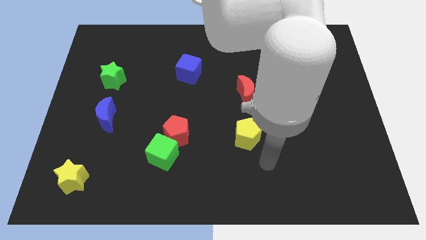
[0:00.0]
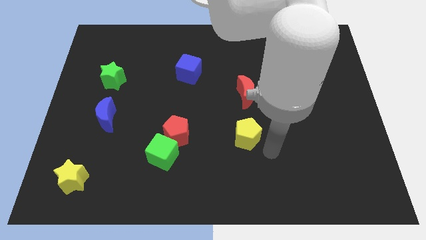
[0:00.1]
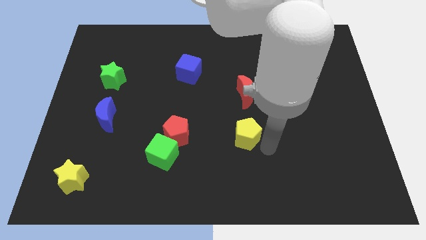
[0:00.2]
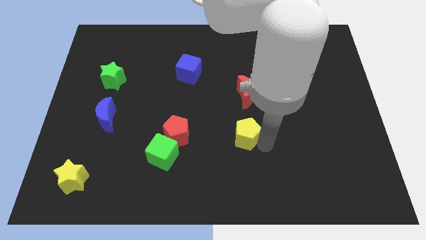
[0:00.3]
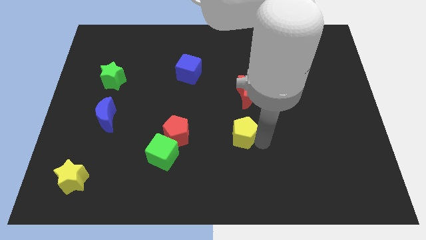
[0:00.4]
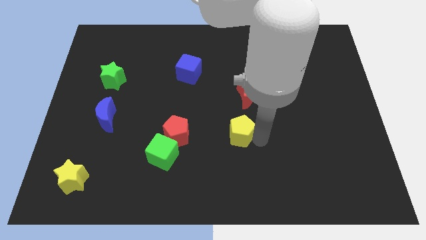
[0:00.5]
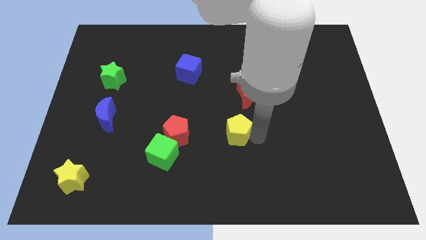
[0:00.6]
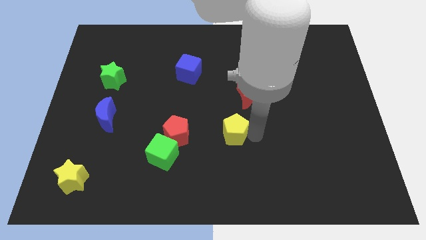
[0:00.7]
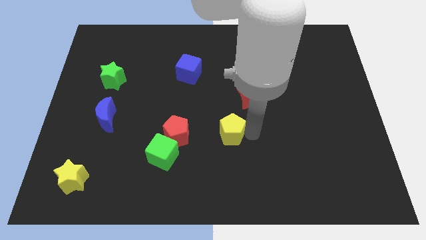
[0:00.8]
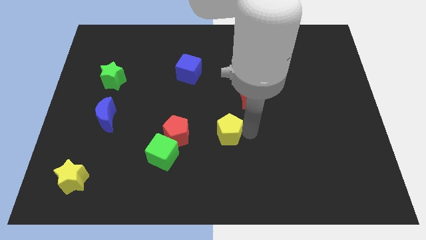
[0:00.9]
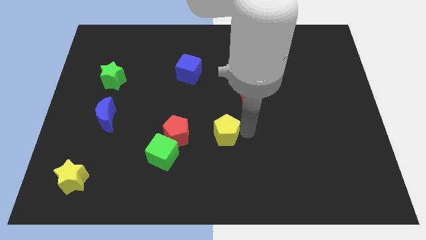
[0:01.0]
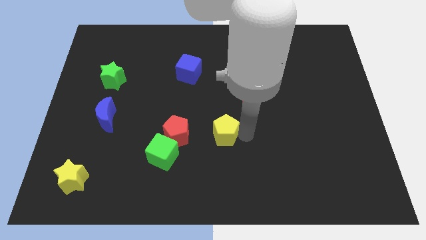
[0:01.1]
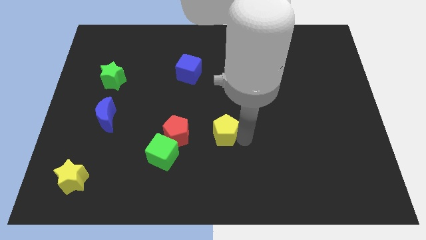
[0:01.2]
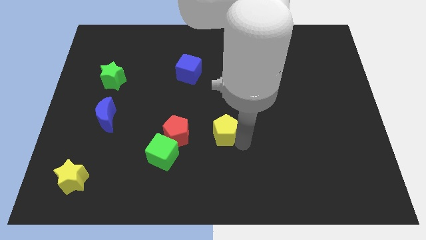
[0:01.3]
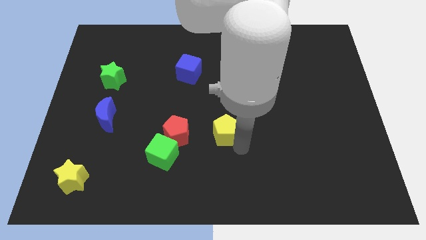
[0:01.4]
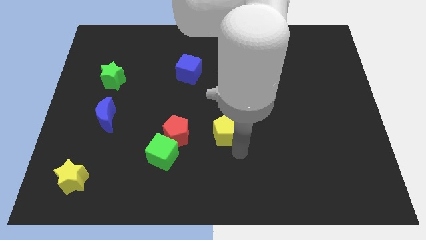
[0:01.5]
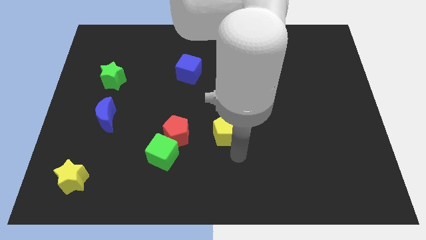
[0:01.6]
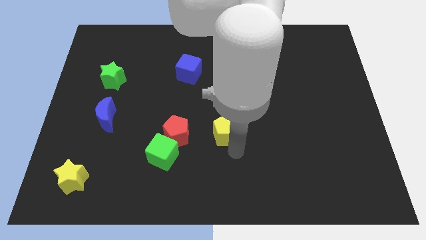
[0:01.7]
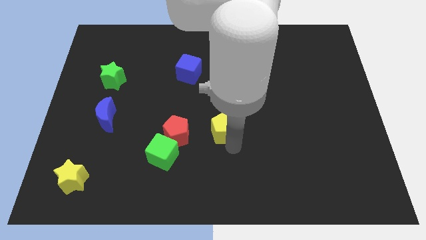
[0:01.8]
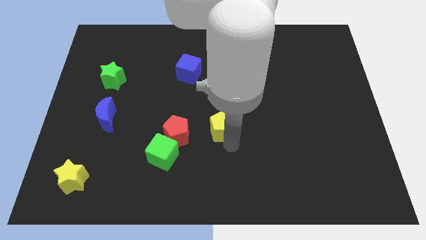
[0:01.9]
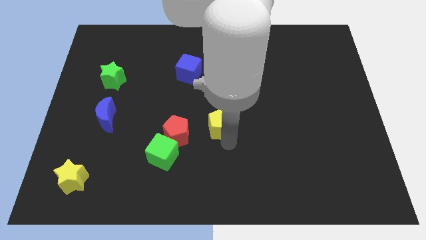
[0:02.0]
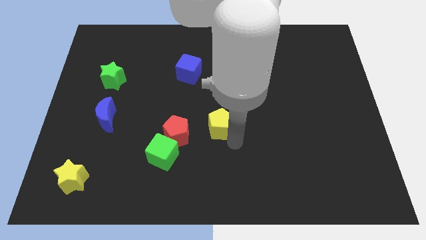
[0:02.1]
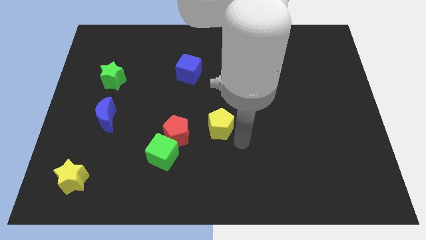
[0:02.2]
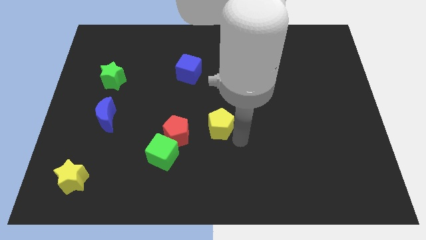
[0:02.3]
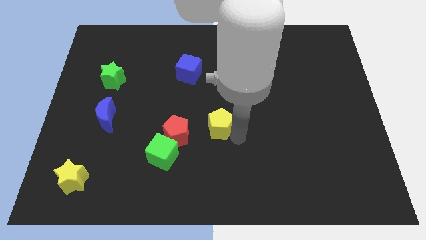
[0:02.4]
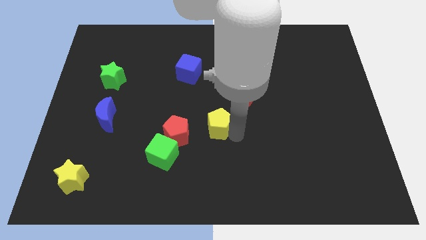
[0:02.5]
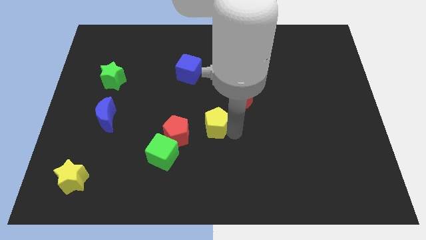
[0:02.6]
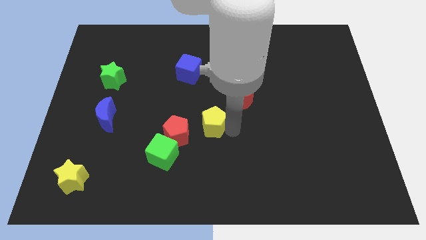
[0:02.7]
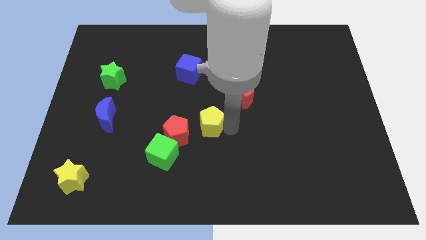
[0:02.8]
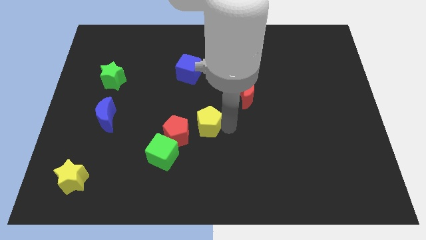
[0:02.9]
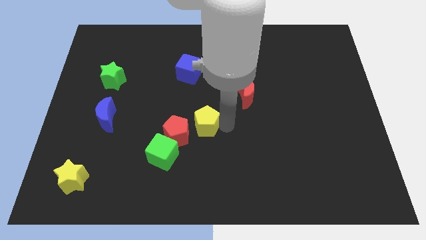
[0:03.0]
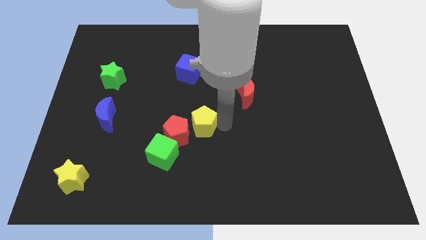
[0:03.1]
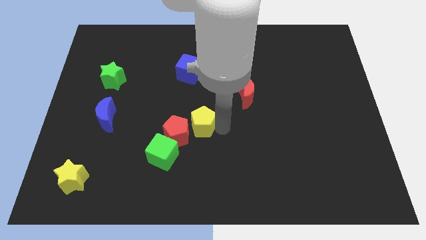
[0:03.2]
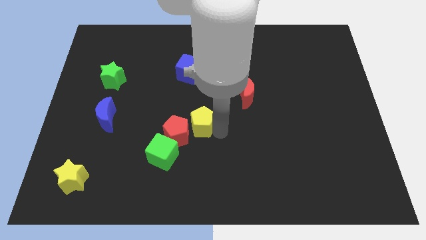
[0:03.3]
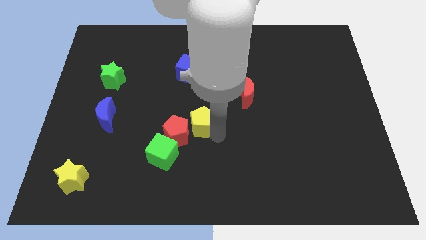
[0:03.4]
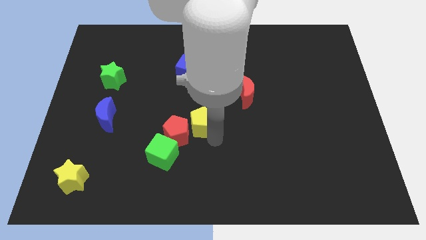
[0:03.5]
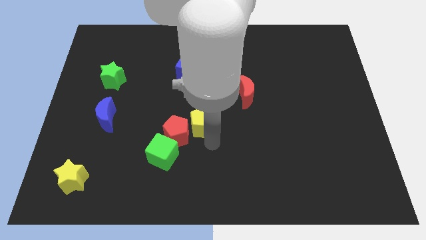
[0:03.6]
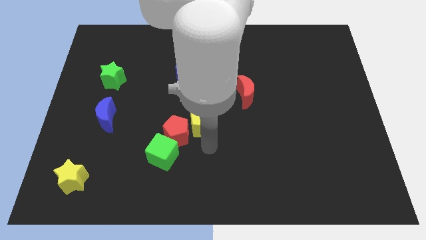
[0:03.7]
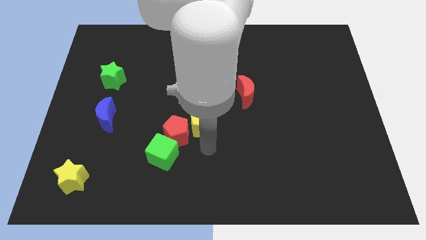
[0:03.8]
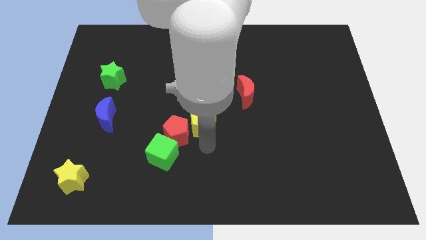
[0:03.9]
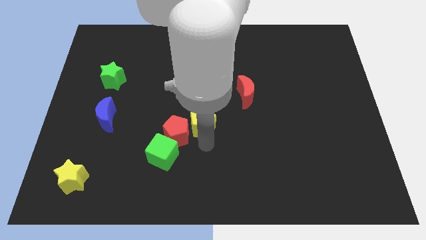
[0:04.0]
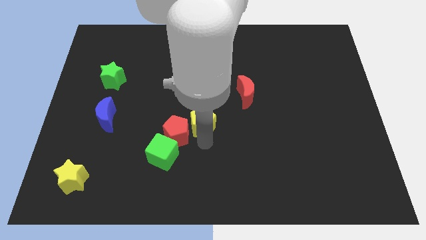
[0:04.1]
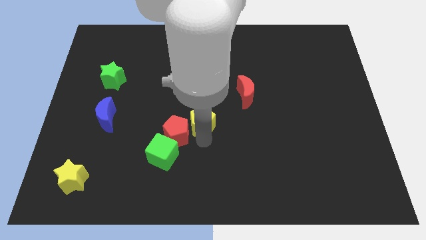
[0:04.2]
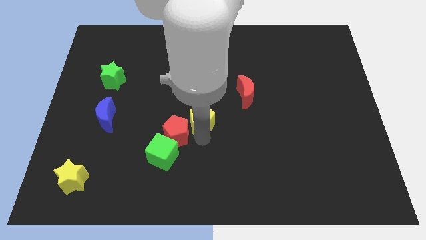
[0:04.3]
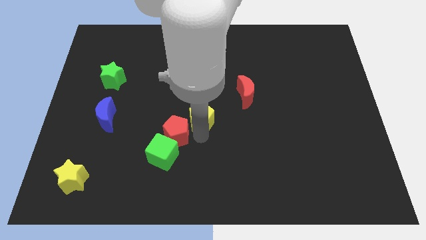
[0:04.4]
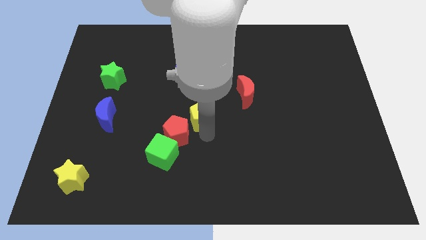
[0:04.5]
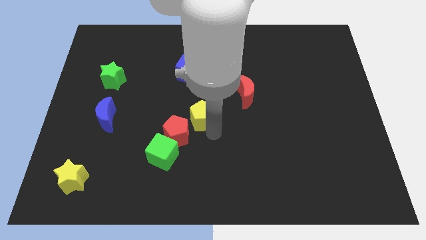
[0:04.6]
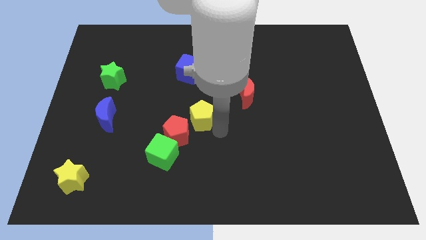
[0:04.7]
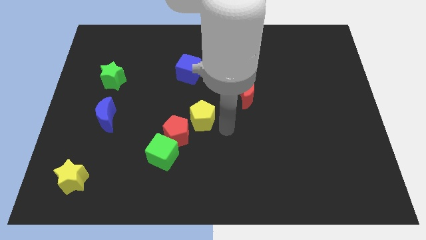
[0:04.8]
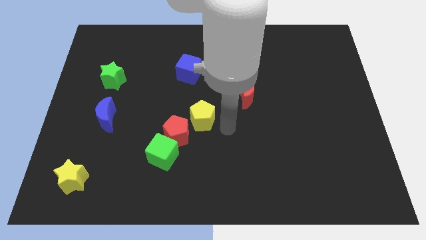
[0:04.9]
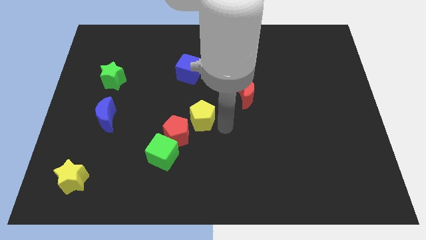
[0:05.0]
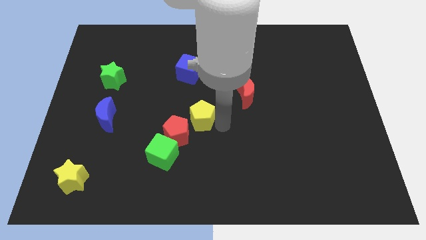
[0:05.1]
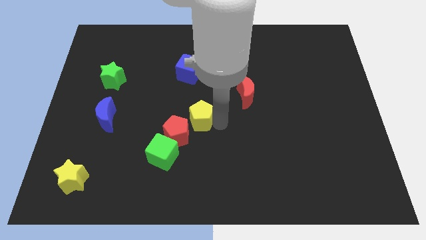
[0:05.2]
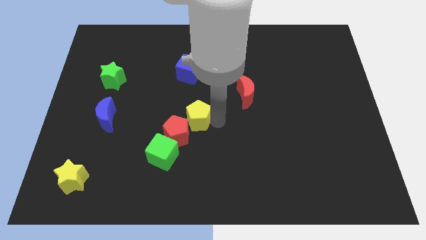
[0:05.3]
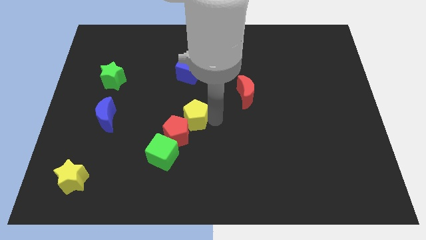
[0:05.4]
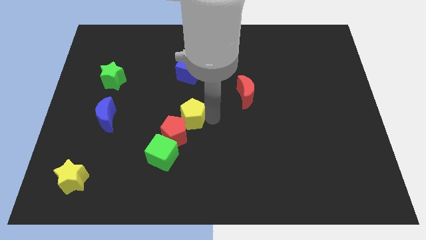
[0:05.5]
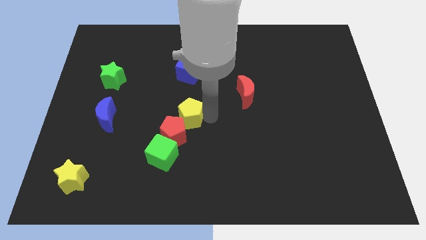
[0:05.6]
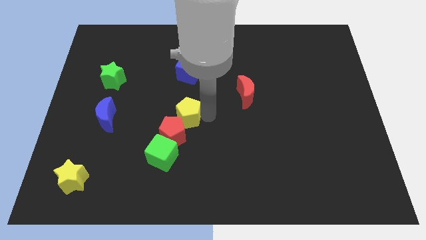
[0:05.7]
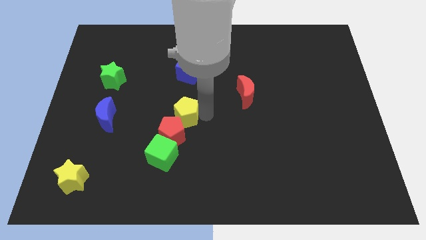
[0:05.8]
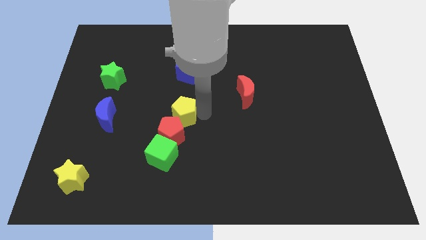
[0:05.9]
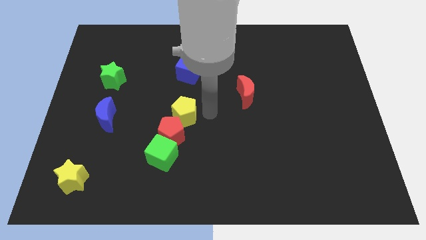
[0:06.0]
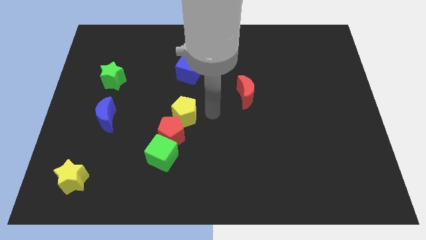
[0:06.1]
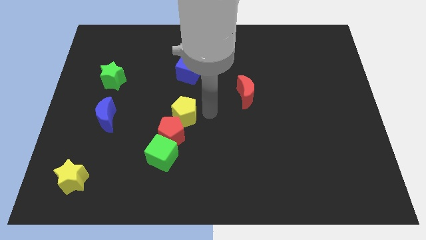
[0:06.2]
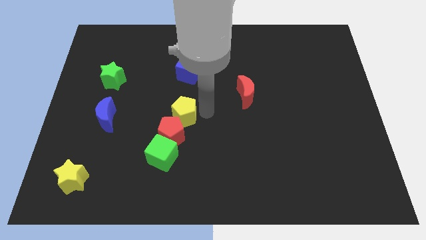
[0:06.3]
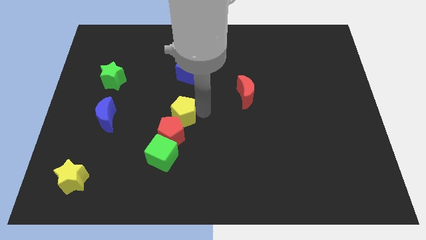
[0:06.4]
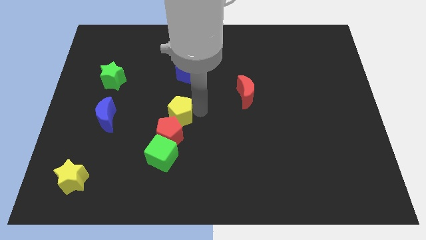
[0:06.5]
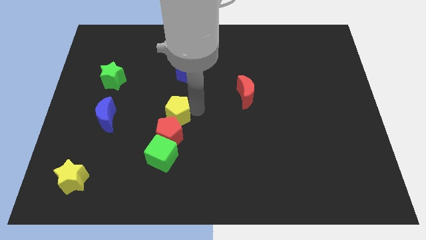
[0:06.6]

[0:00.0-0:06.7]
push the yellow pentagon to the top left side of the red pentagon

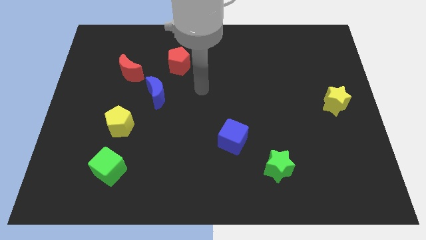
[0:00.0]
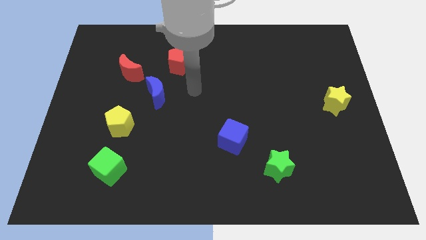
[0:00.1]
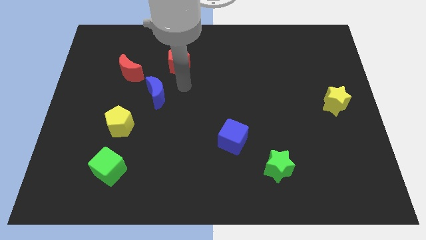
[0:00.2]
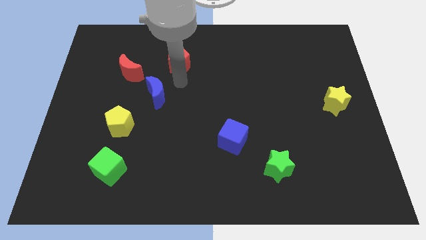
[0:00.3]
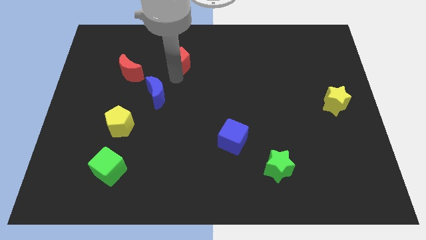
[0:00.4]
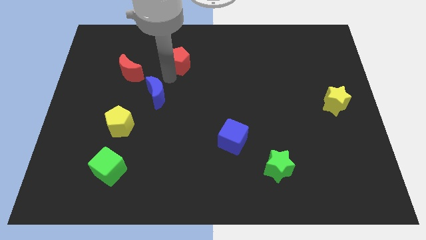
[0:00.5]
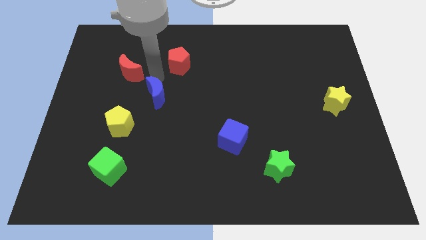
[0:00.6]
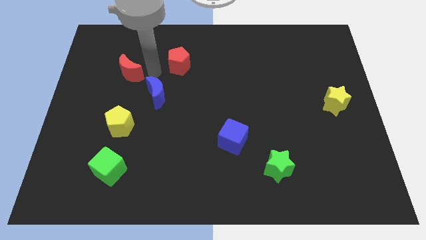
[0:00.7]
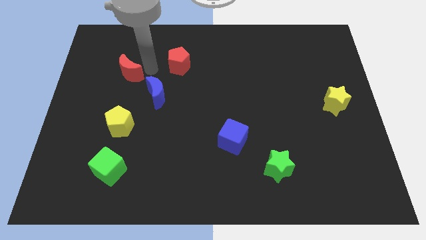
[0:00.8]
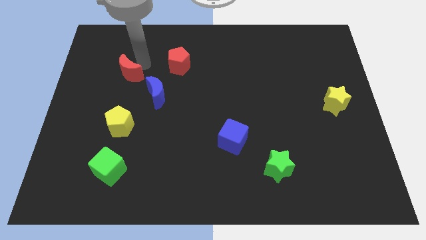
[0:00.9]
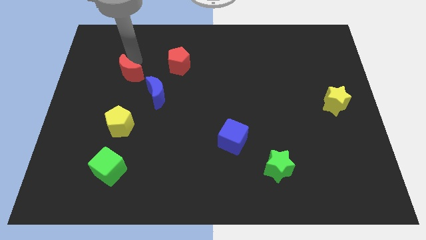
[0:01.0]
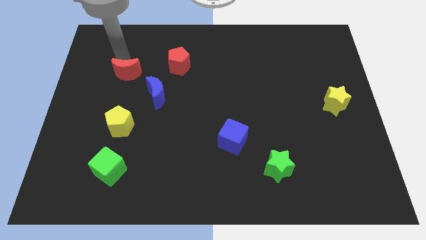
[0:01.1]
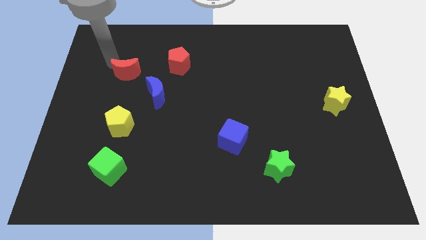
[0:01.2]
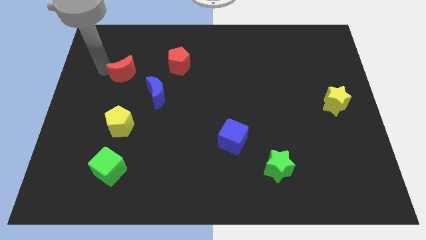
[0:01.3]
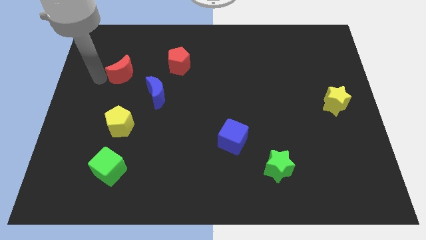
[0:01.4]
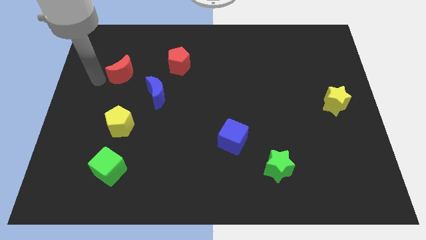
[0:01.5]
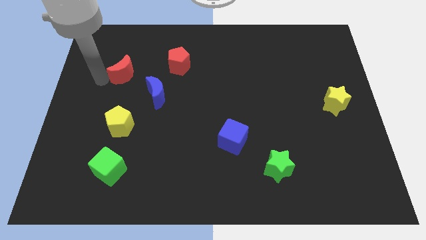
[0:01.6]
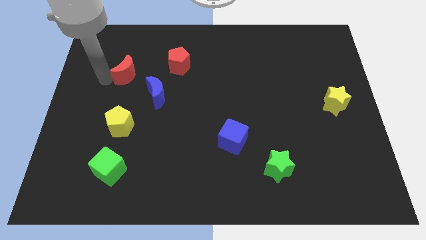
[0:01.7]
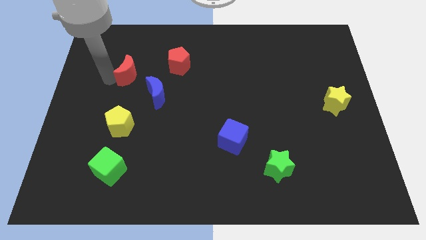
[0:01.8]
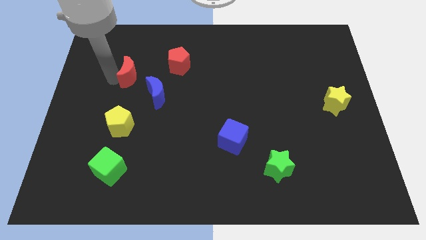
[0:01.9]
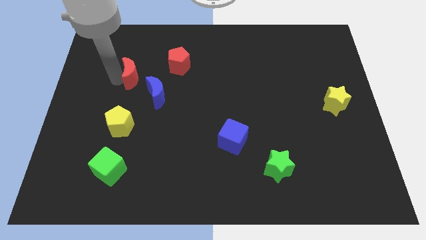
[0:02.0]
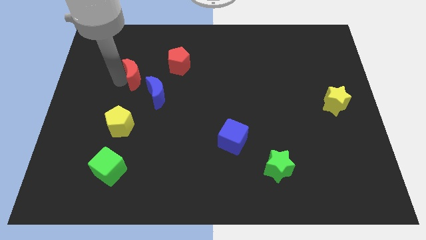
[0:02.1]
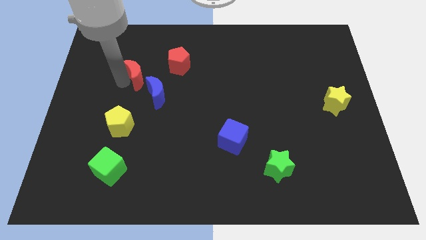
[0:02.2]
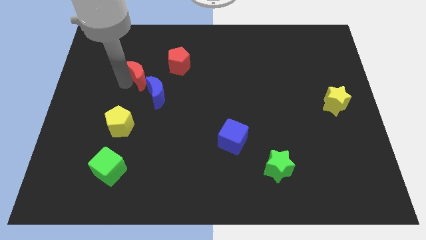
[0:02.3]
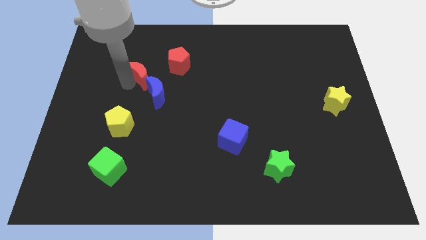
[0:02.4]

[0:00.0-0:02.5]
put the red moon above the blue moon
